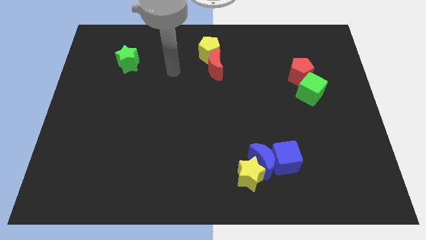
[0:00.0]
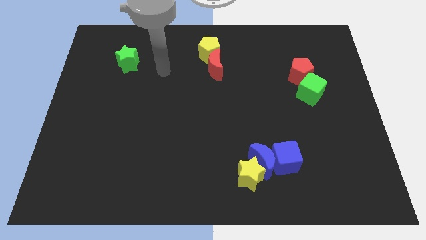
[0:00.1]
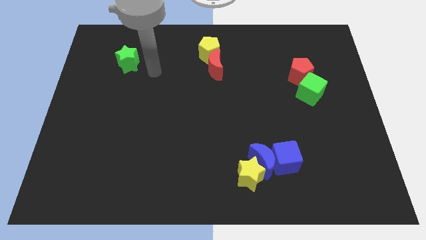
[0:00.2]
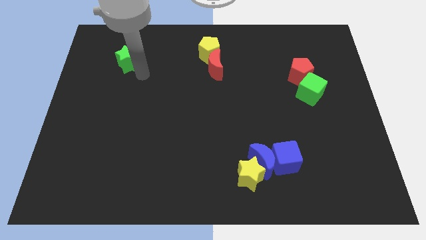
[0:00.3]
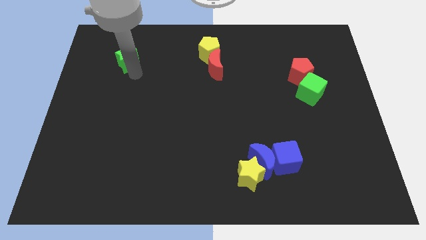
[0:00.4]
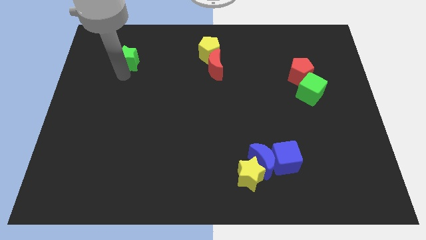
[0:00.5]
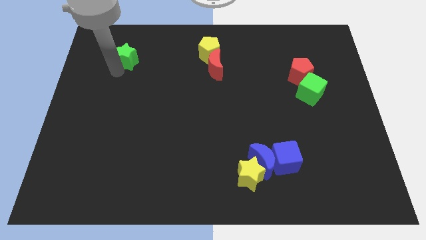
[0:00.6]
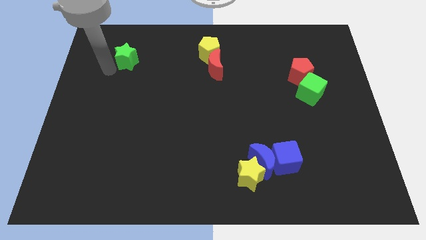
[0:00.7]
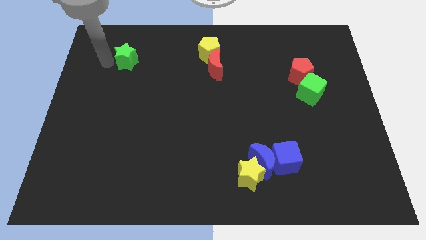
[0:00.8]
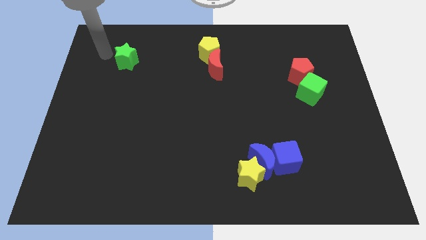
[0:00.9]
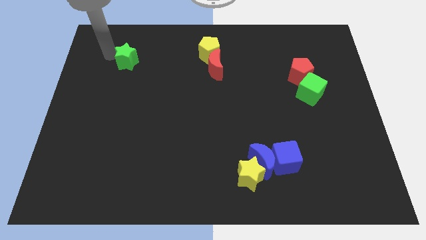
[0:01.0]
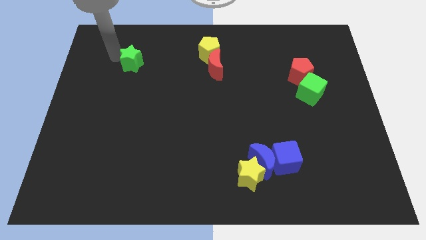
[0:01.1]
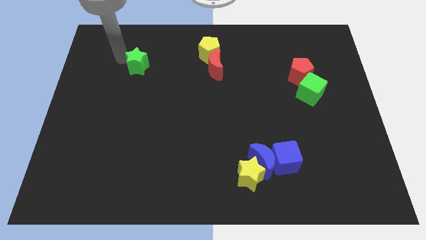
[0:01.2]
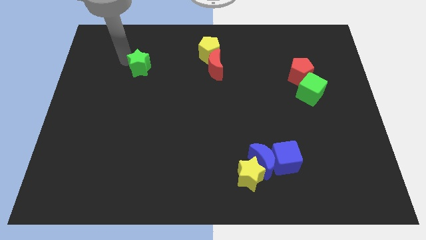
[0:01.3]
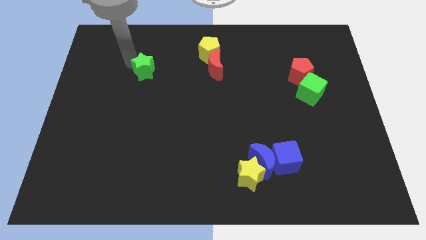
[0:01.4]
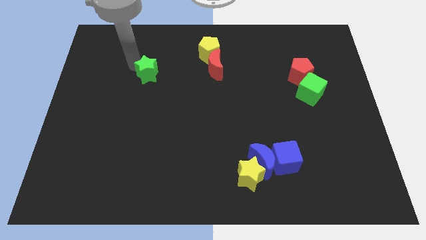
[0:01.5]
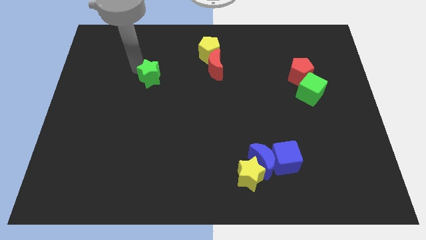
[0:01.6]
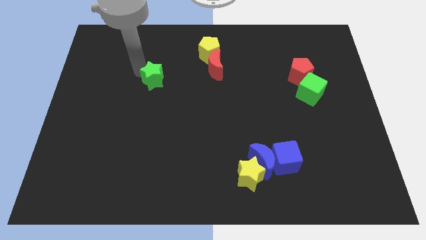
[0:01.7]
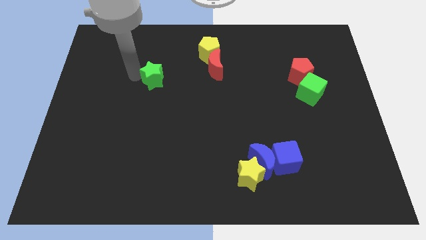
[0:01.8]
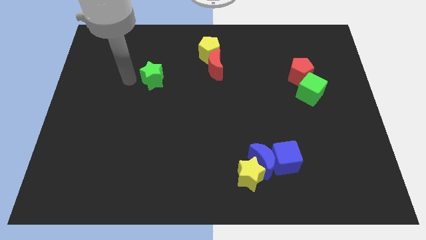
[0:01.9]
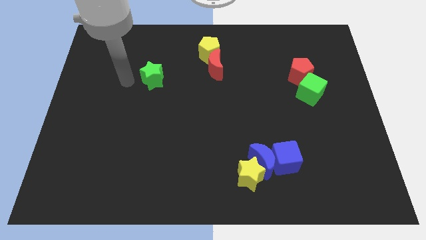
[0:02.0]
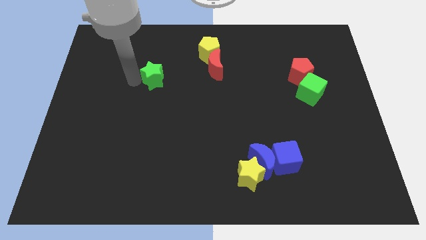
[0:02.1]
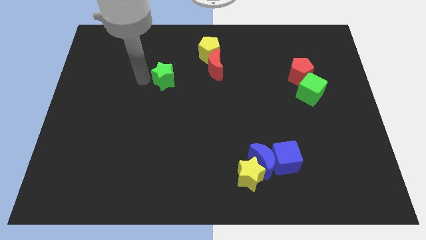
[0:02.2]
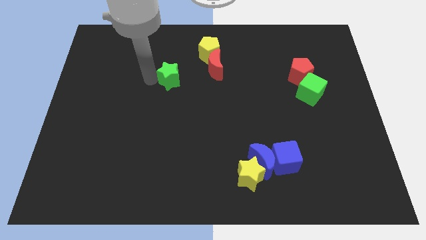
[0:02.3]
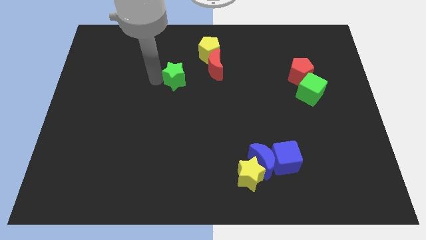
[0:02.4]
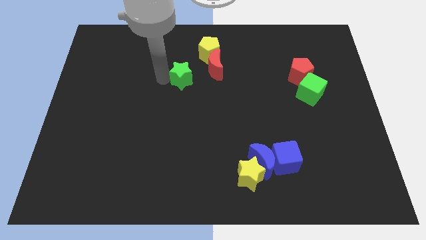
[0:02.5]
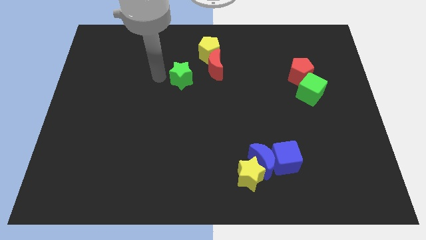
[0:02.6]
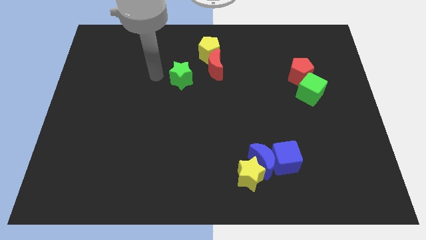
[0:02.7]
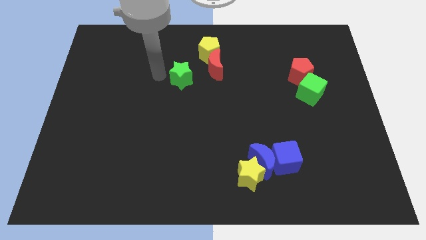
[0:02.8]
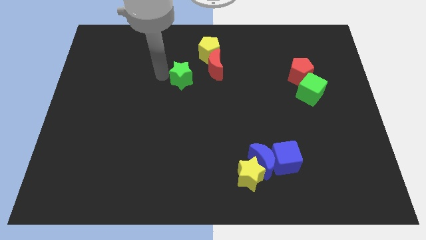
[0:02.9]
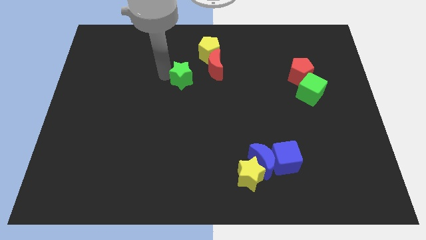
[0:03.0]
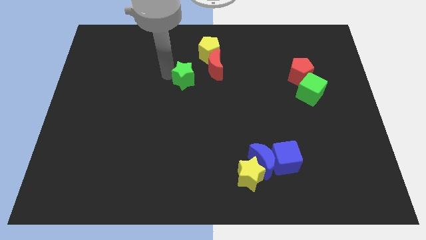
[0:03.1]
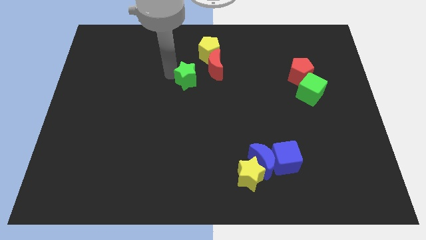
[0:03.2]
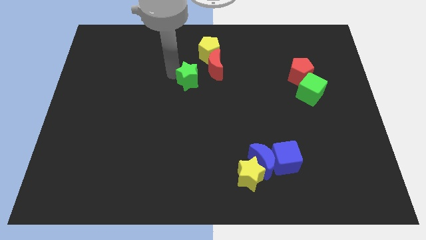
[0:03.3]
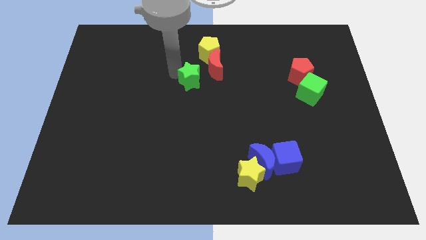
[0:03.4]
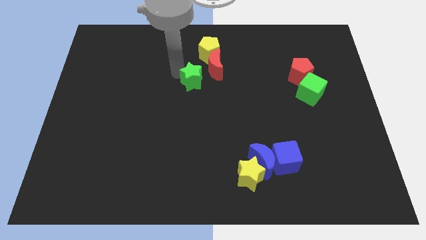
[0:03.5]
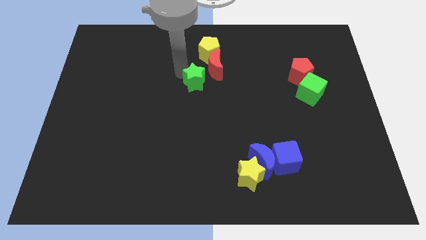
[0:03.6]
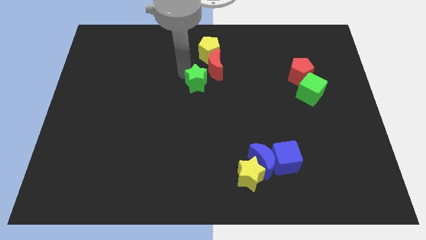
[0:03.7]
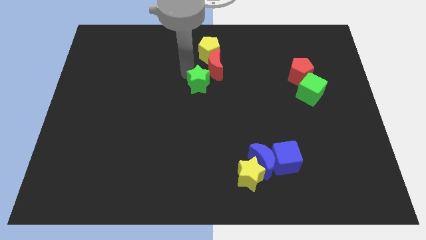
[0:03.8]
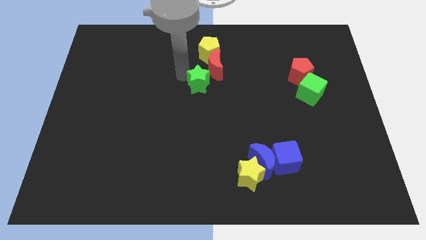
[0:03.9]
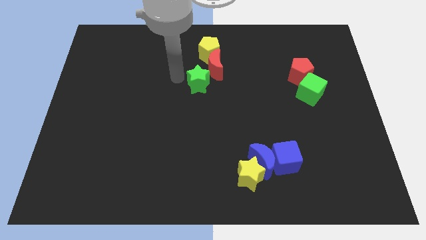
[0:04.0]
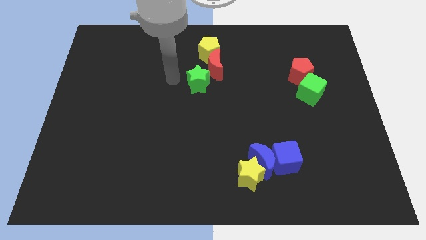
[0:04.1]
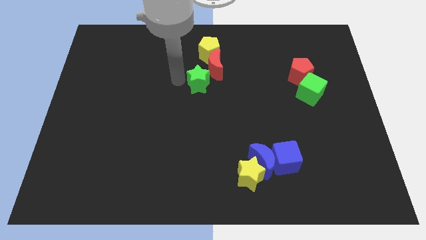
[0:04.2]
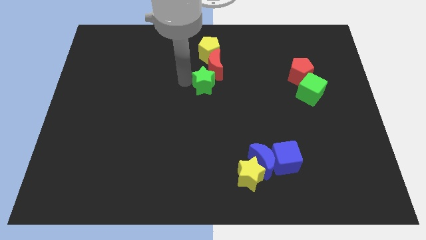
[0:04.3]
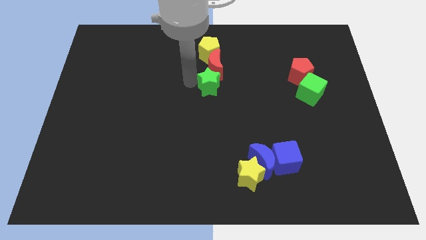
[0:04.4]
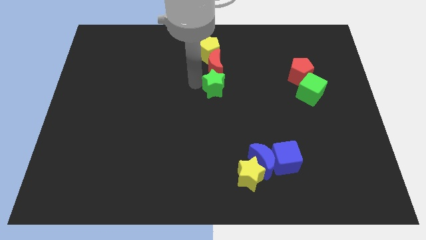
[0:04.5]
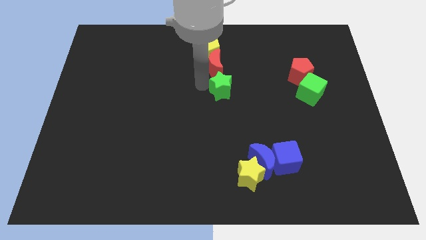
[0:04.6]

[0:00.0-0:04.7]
move the green star to the right

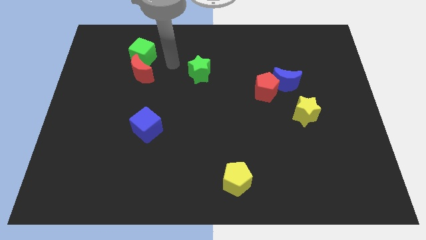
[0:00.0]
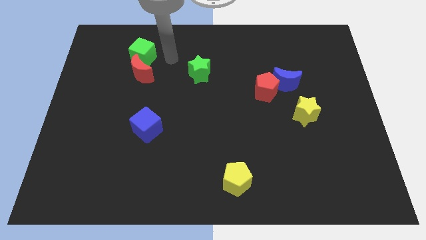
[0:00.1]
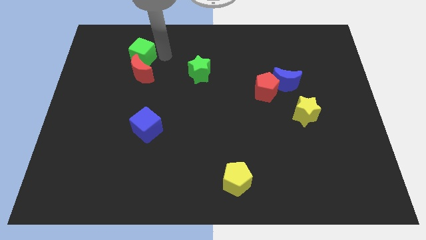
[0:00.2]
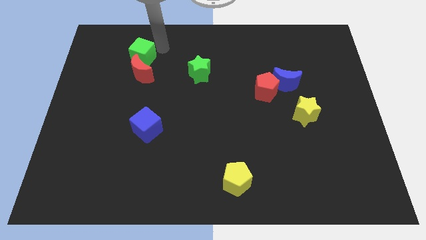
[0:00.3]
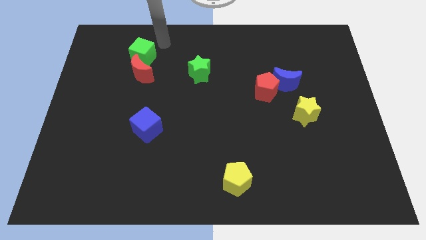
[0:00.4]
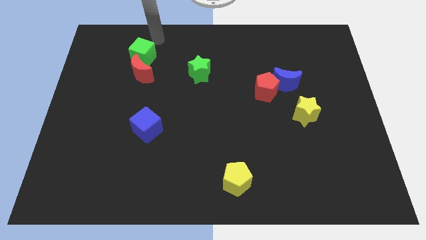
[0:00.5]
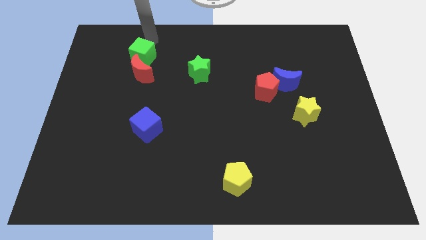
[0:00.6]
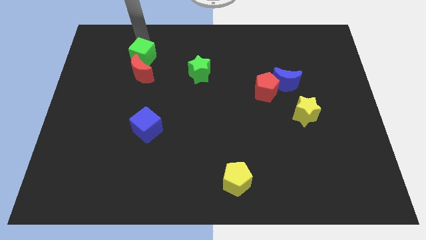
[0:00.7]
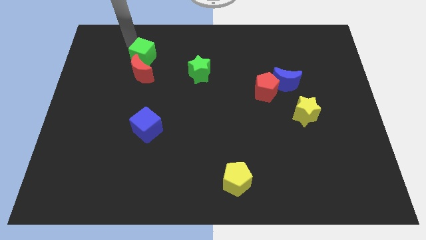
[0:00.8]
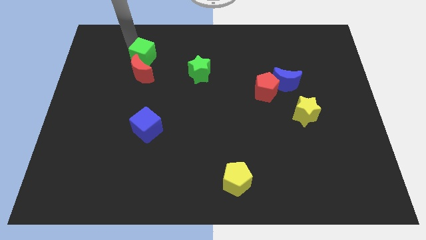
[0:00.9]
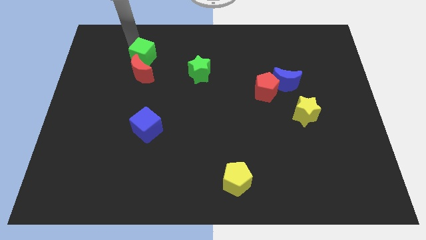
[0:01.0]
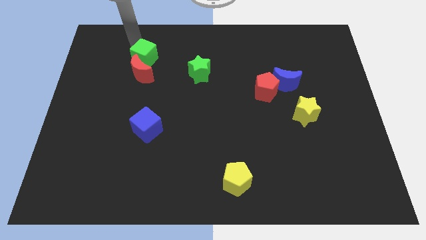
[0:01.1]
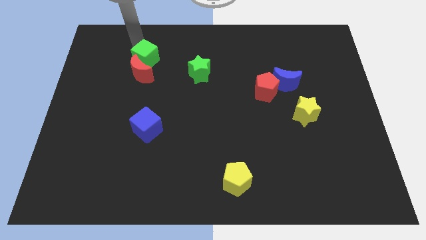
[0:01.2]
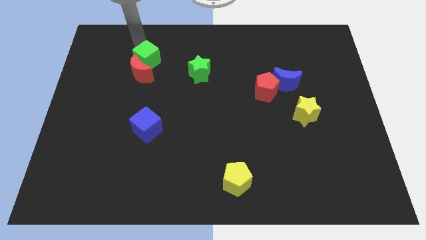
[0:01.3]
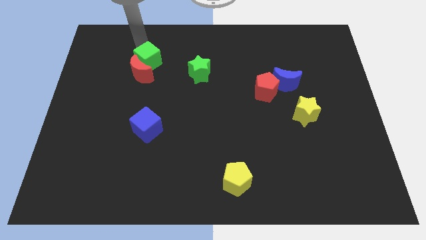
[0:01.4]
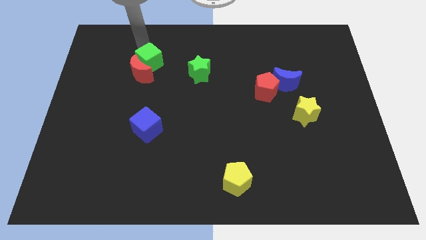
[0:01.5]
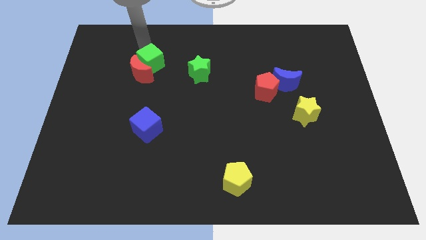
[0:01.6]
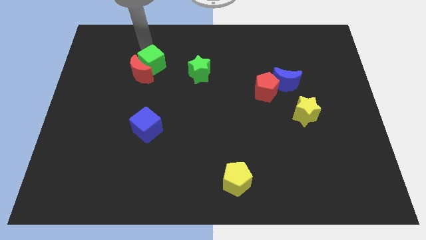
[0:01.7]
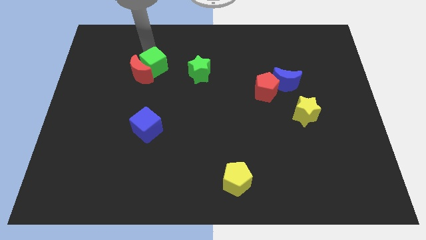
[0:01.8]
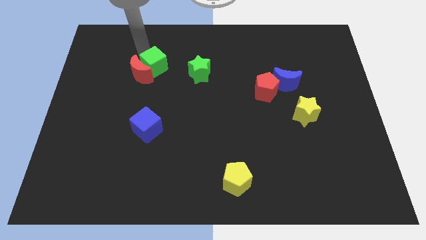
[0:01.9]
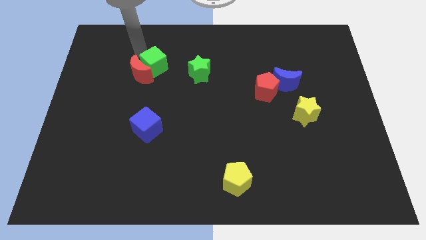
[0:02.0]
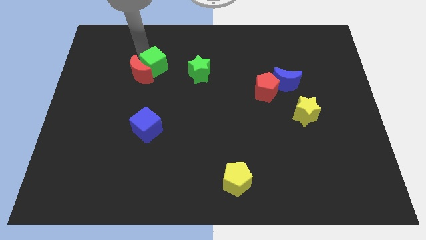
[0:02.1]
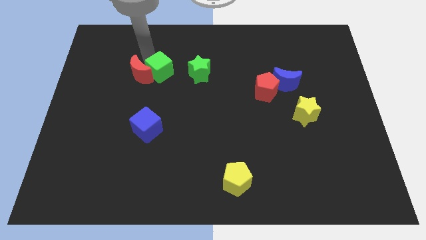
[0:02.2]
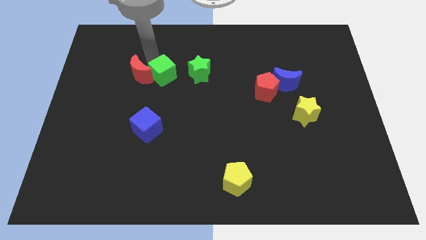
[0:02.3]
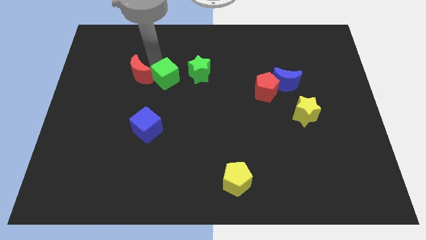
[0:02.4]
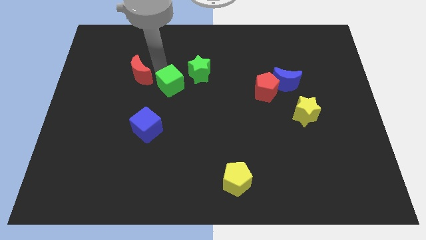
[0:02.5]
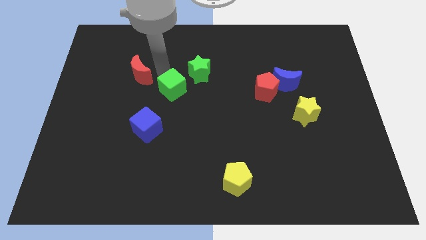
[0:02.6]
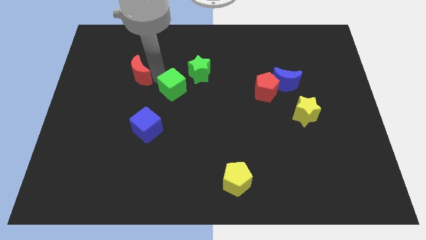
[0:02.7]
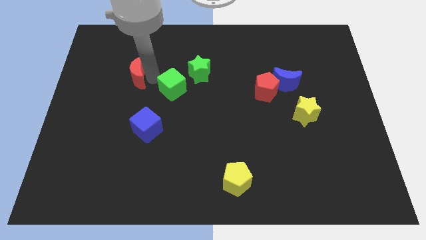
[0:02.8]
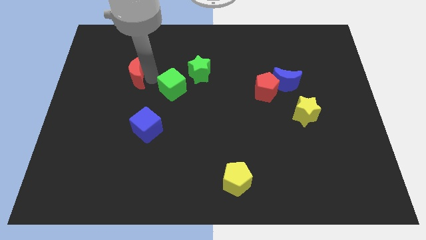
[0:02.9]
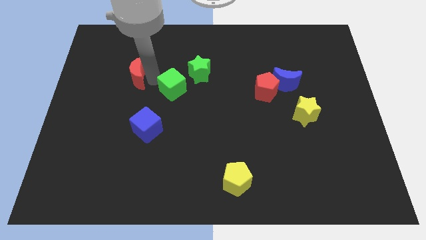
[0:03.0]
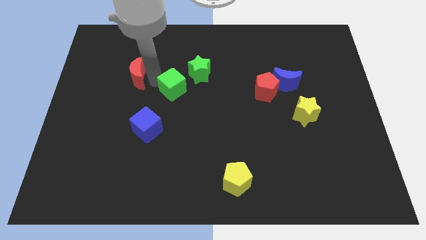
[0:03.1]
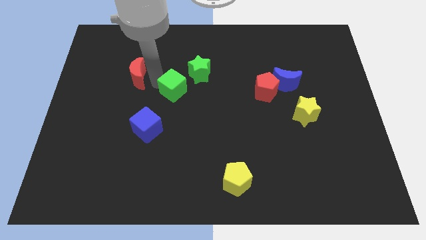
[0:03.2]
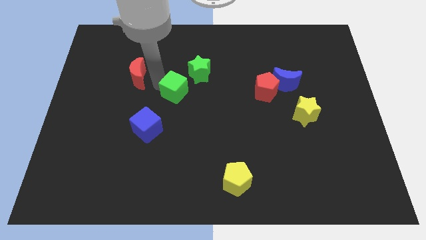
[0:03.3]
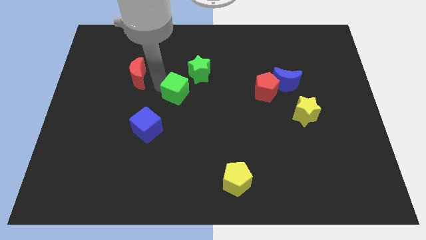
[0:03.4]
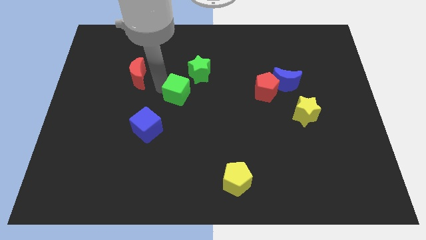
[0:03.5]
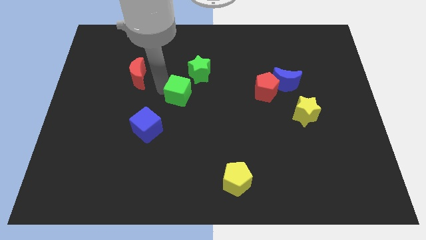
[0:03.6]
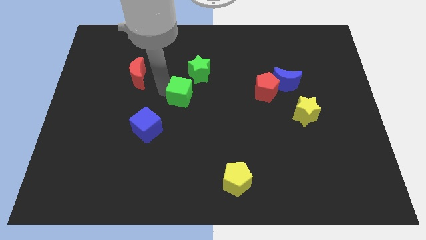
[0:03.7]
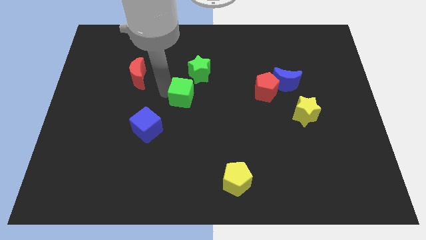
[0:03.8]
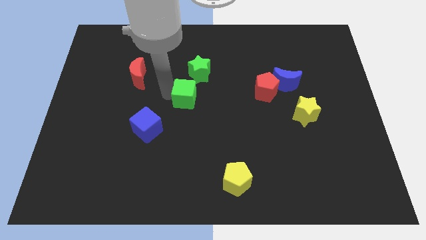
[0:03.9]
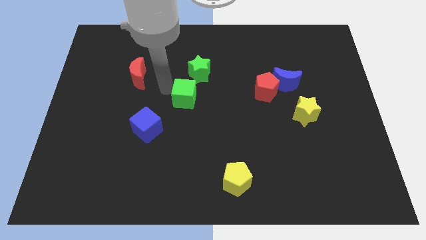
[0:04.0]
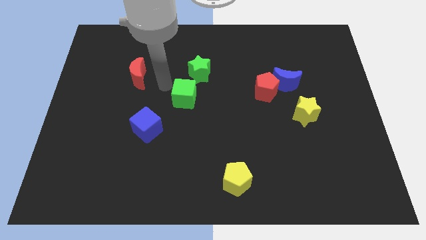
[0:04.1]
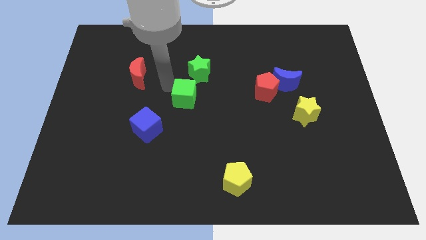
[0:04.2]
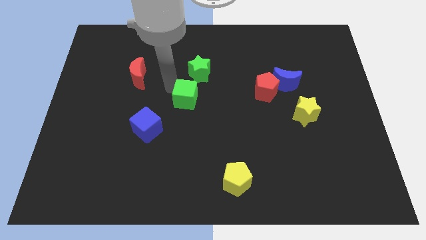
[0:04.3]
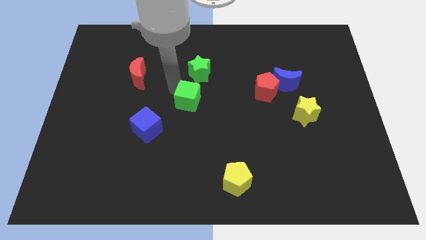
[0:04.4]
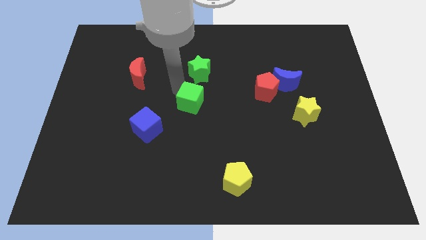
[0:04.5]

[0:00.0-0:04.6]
slide the green cube down and then right
